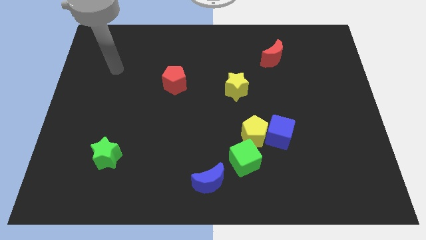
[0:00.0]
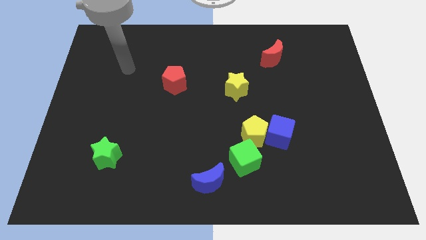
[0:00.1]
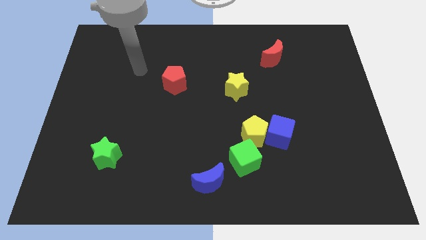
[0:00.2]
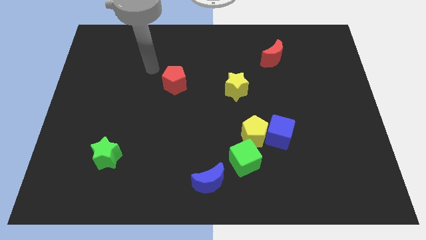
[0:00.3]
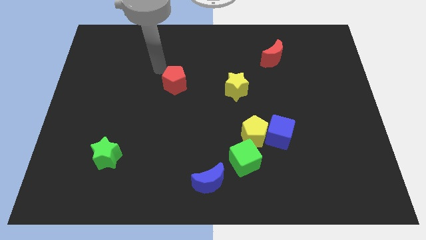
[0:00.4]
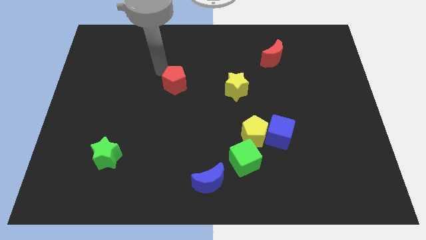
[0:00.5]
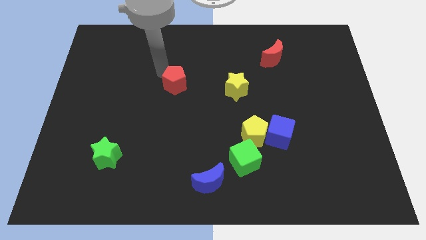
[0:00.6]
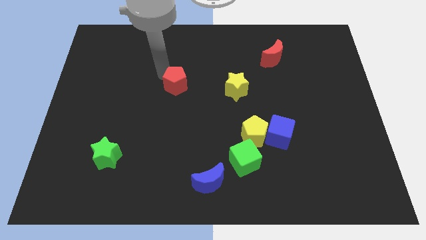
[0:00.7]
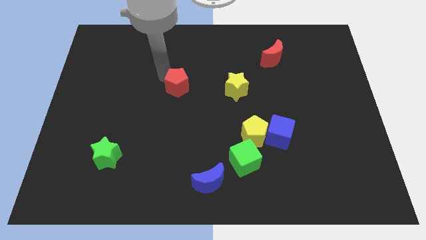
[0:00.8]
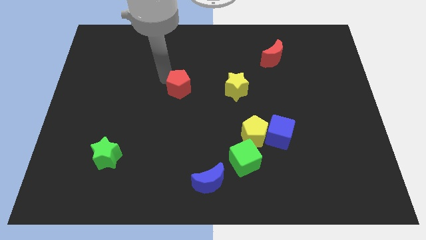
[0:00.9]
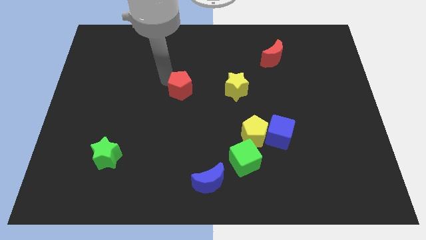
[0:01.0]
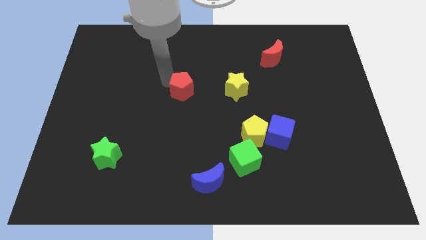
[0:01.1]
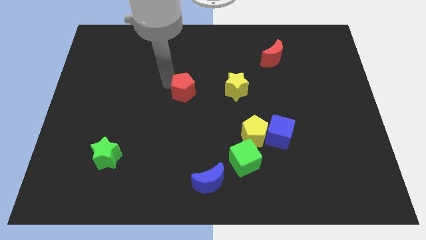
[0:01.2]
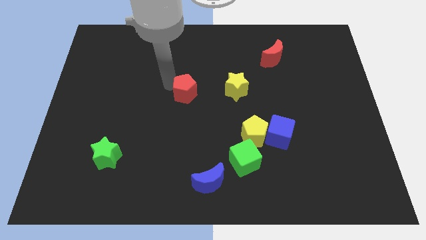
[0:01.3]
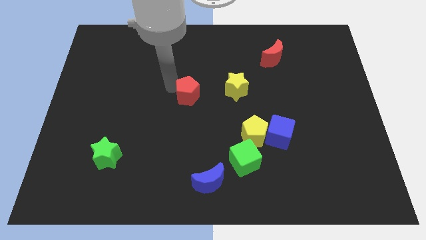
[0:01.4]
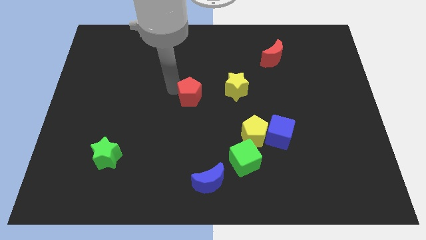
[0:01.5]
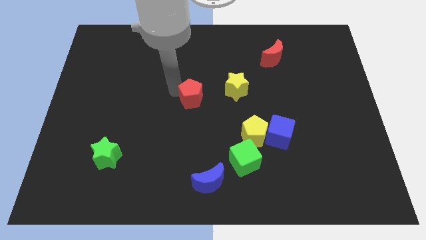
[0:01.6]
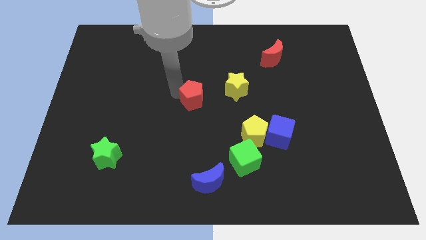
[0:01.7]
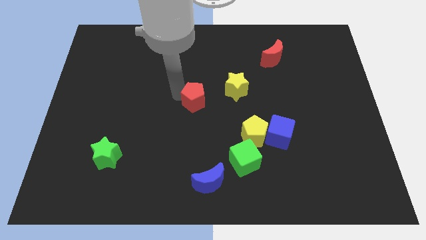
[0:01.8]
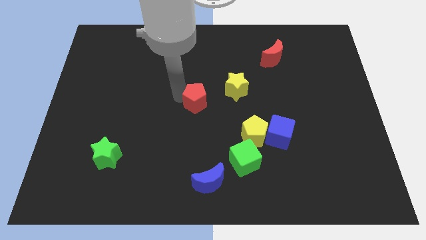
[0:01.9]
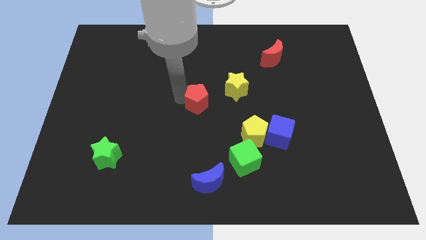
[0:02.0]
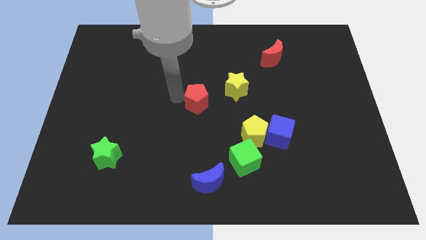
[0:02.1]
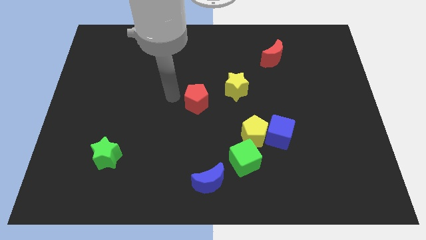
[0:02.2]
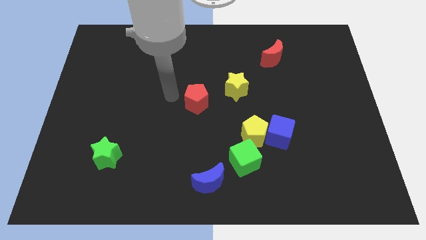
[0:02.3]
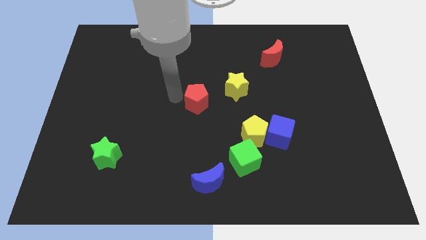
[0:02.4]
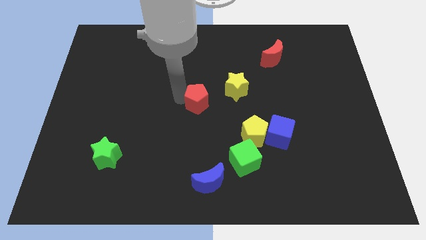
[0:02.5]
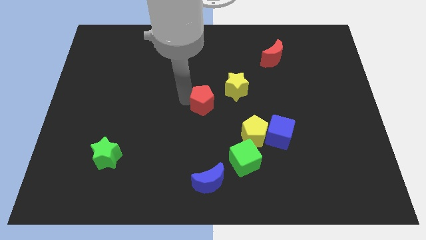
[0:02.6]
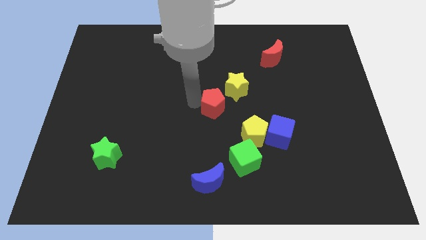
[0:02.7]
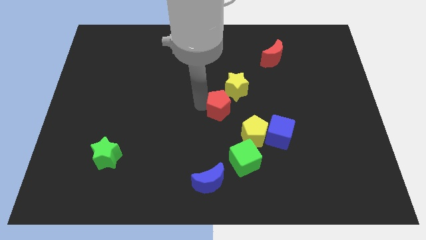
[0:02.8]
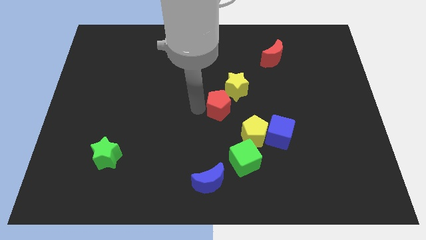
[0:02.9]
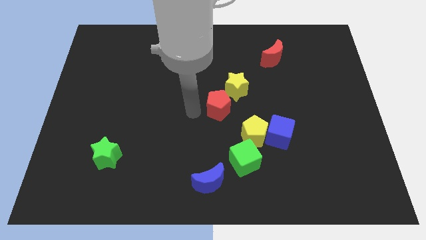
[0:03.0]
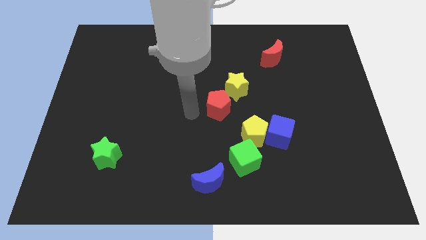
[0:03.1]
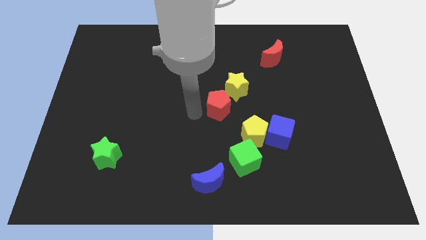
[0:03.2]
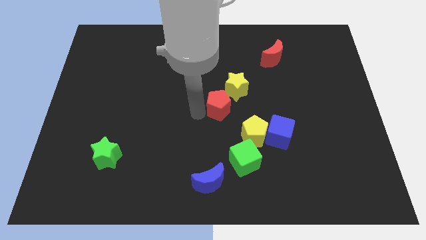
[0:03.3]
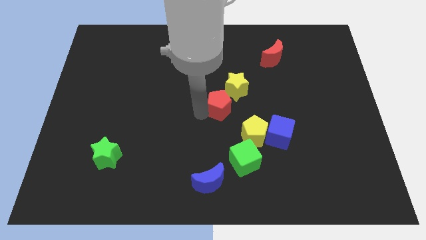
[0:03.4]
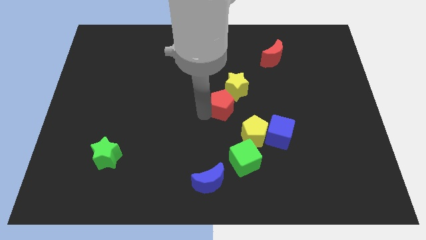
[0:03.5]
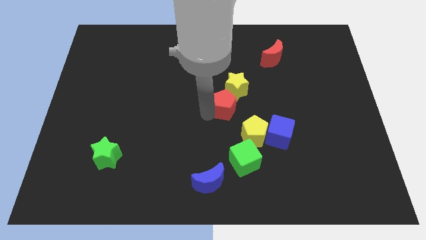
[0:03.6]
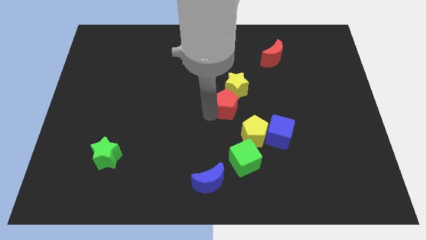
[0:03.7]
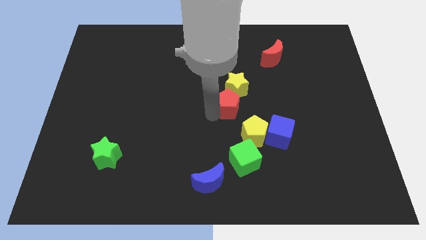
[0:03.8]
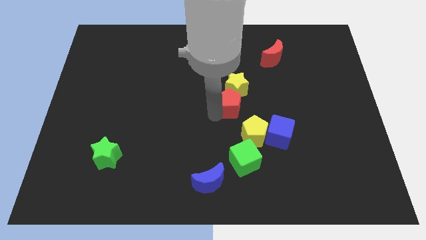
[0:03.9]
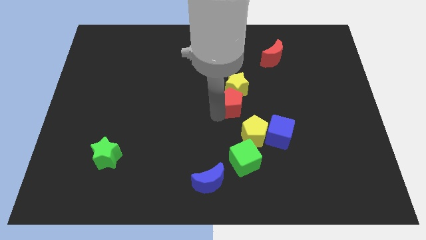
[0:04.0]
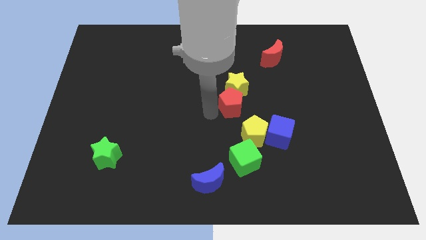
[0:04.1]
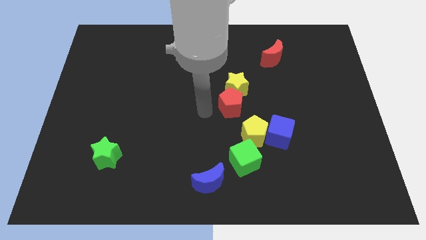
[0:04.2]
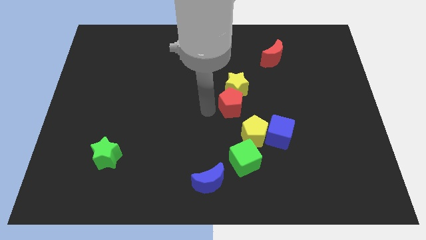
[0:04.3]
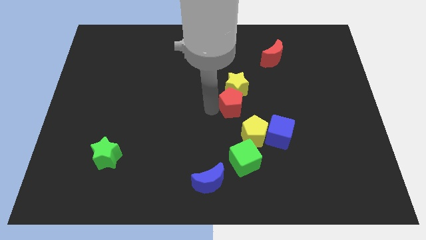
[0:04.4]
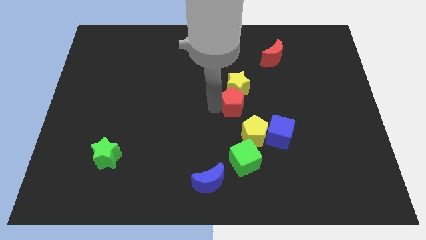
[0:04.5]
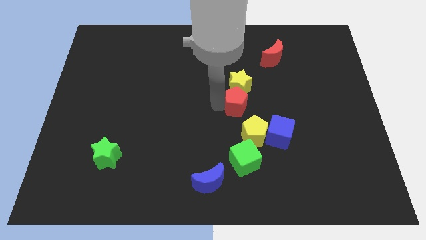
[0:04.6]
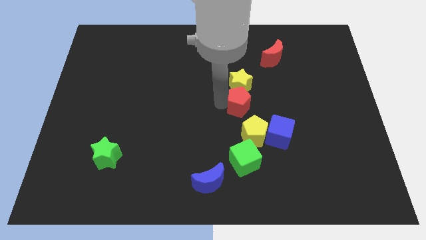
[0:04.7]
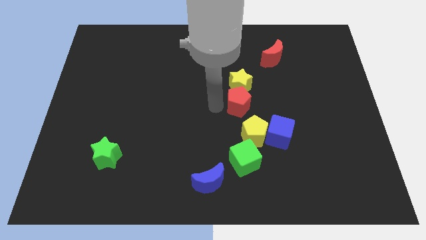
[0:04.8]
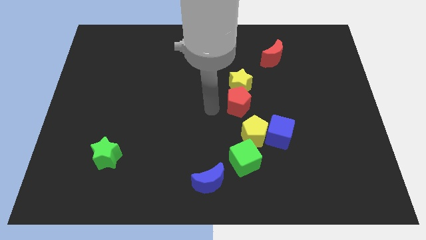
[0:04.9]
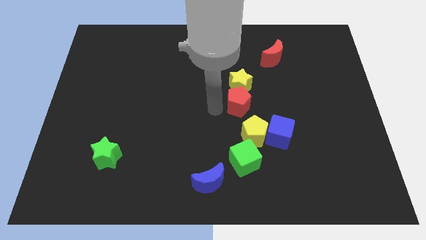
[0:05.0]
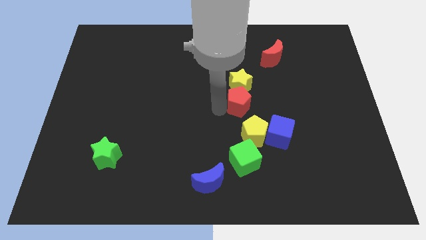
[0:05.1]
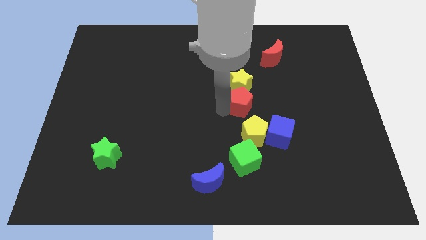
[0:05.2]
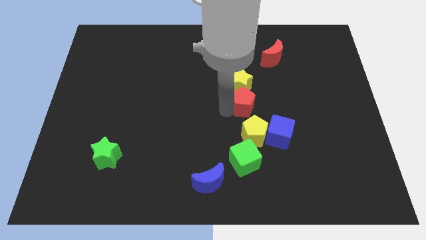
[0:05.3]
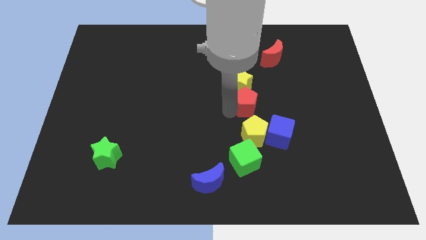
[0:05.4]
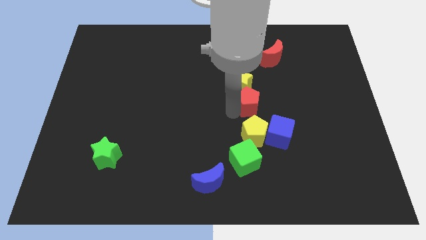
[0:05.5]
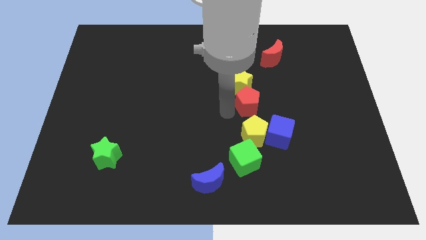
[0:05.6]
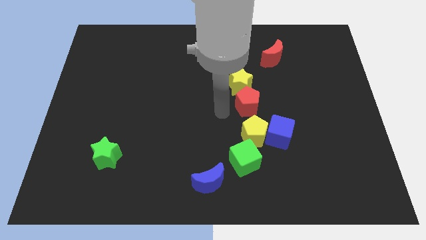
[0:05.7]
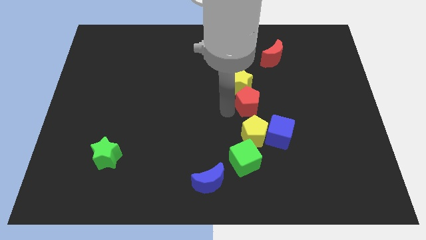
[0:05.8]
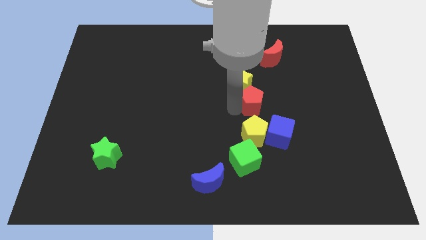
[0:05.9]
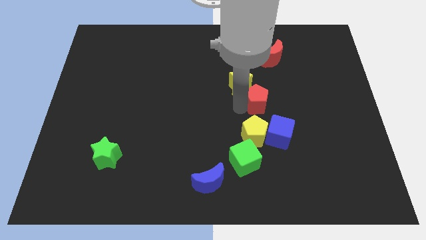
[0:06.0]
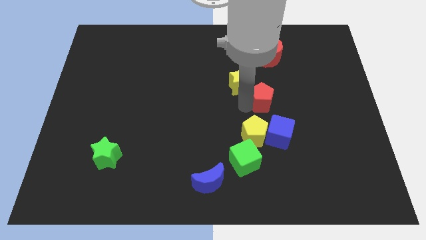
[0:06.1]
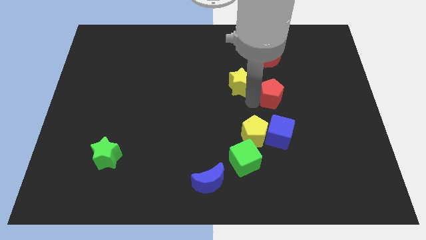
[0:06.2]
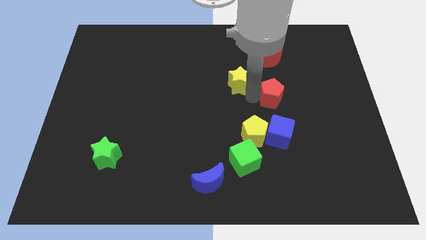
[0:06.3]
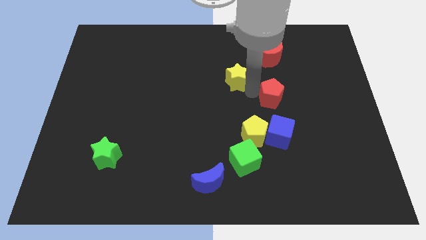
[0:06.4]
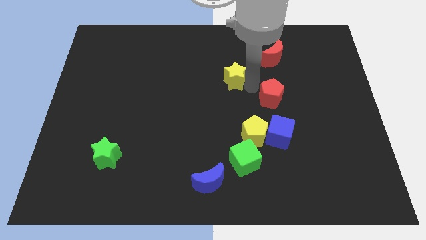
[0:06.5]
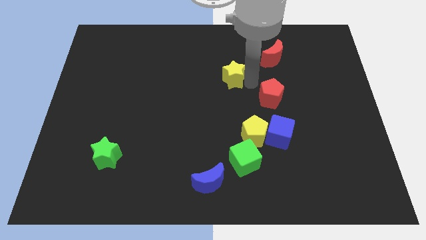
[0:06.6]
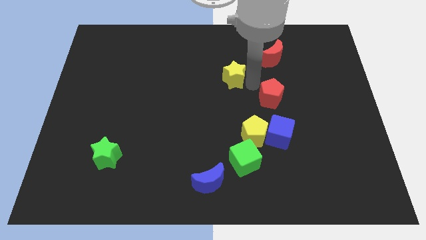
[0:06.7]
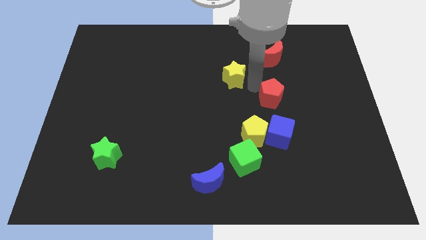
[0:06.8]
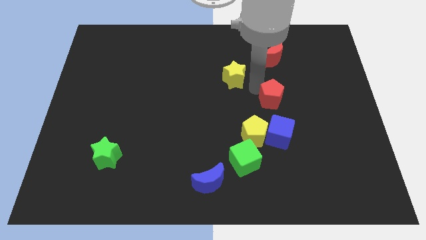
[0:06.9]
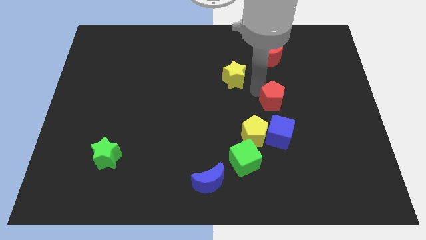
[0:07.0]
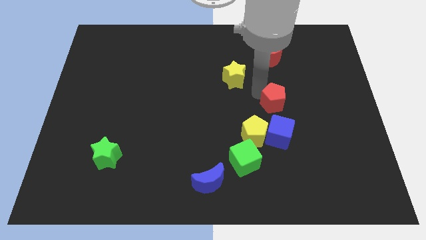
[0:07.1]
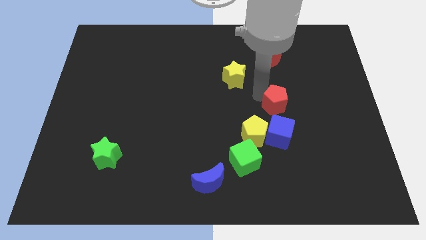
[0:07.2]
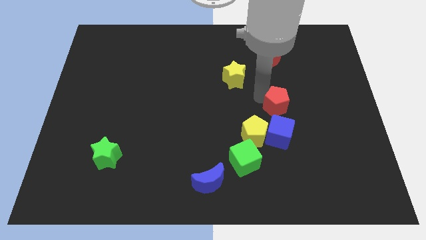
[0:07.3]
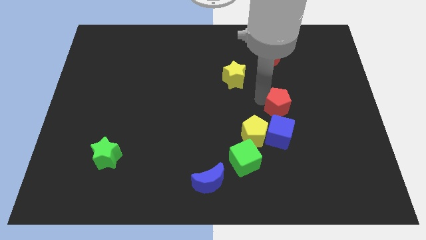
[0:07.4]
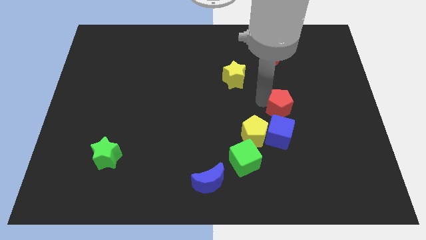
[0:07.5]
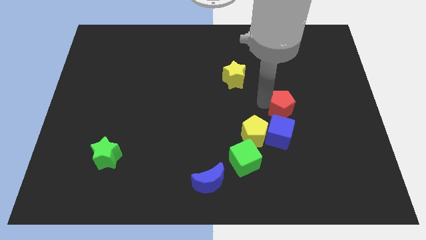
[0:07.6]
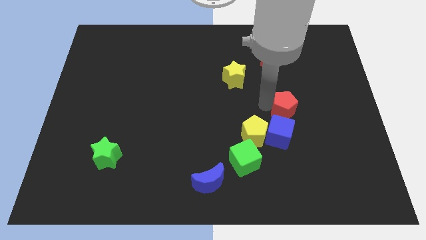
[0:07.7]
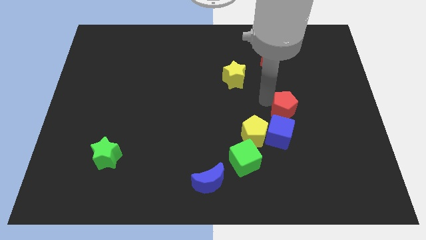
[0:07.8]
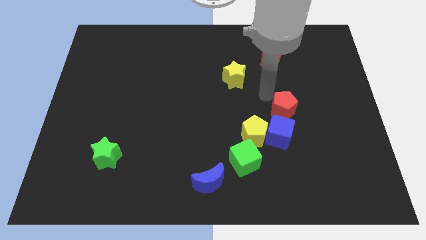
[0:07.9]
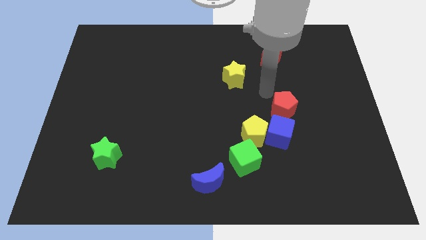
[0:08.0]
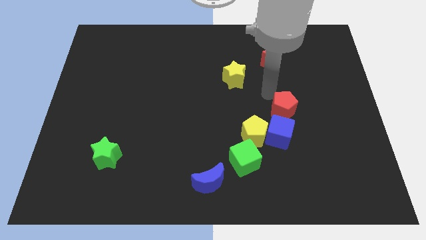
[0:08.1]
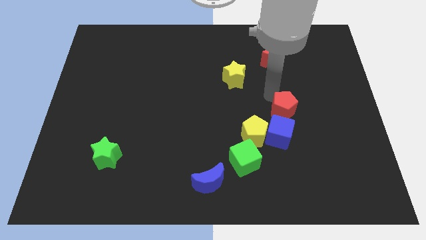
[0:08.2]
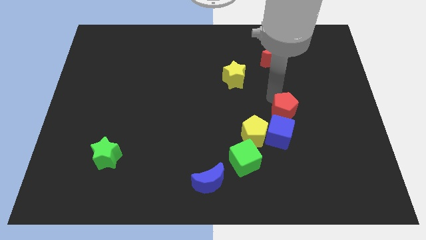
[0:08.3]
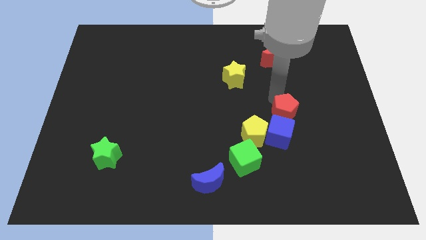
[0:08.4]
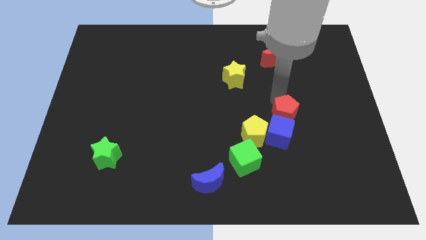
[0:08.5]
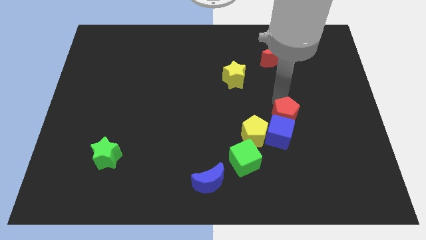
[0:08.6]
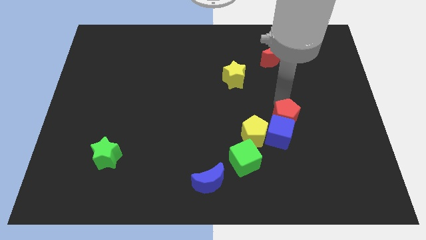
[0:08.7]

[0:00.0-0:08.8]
slide the red pentagon diagonally downwards and right
